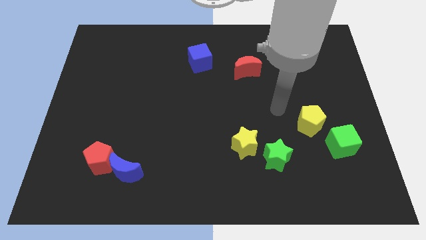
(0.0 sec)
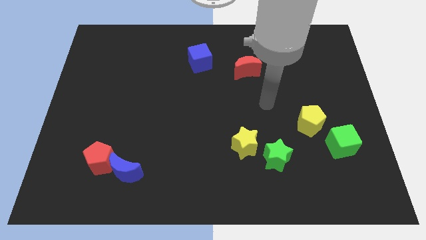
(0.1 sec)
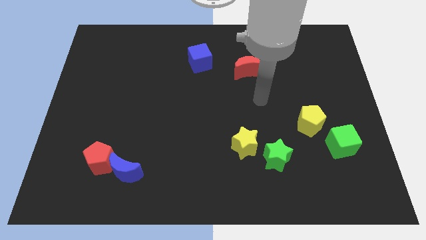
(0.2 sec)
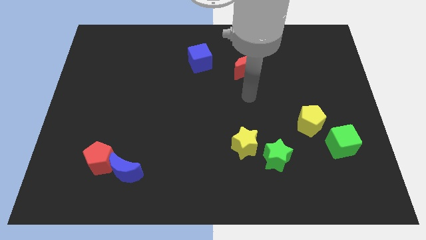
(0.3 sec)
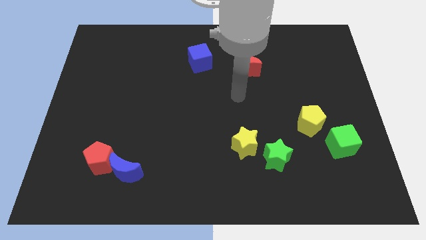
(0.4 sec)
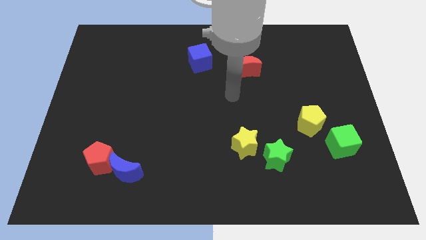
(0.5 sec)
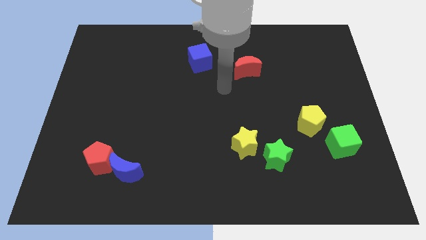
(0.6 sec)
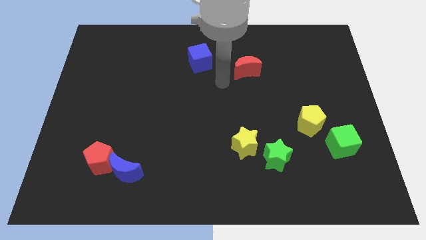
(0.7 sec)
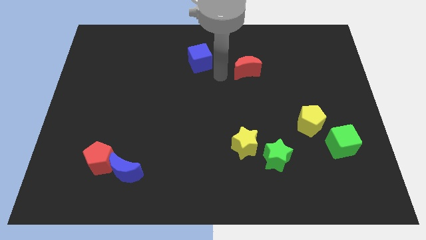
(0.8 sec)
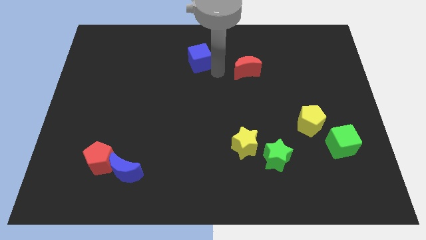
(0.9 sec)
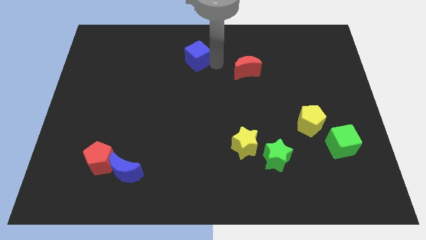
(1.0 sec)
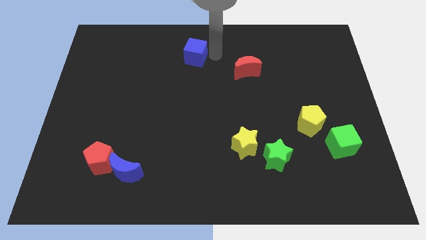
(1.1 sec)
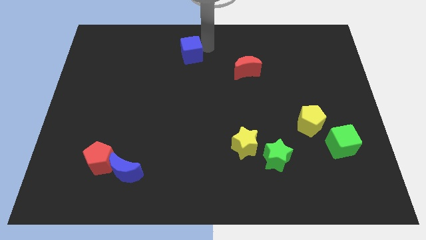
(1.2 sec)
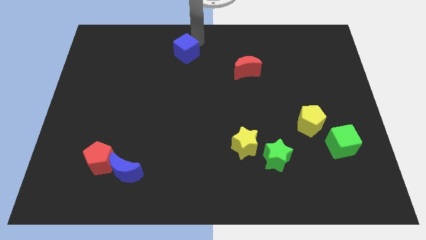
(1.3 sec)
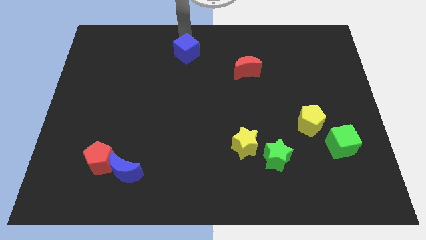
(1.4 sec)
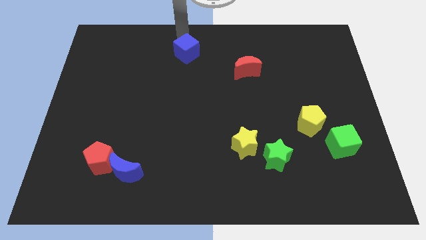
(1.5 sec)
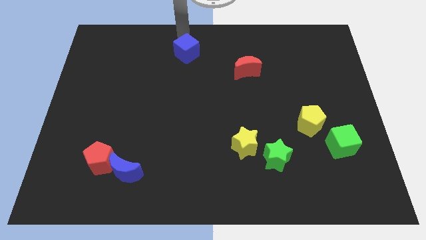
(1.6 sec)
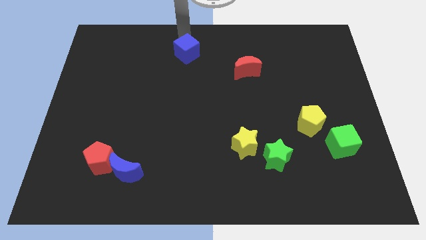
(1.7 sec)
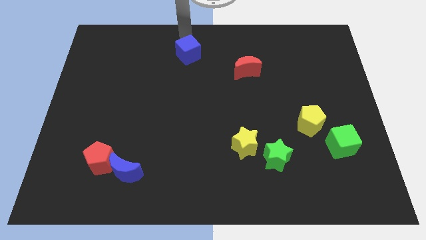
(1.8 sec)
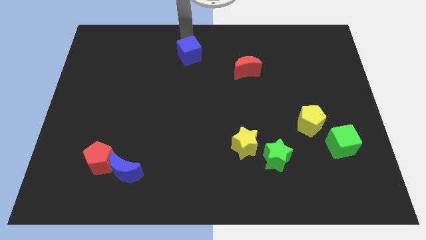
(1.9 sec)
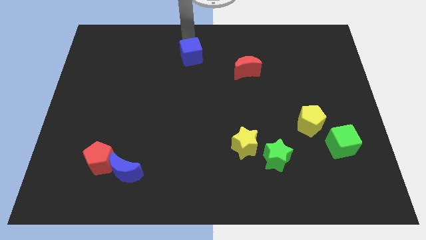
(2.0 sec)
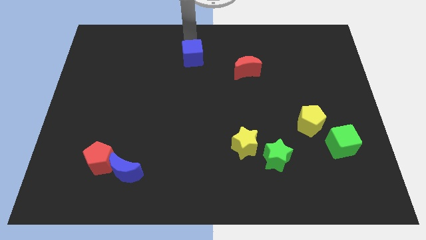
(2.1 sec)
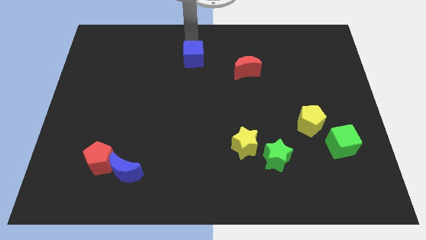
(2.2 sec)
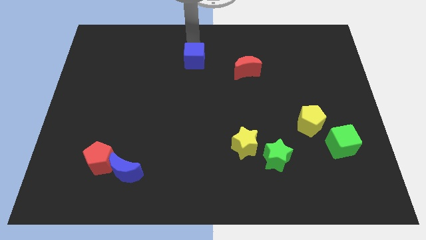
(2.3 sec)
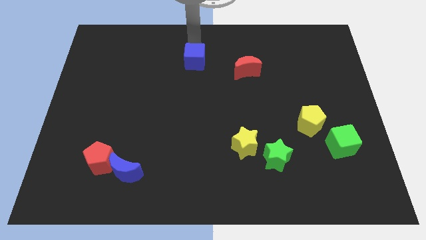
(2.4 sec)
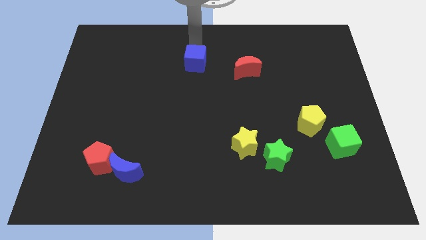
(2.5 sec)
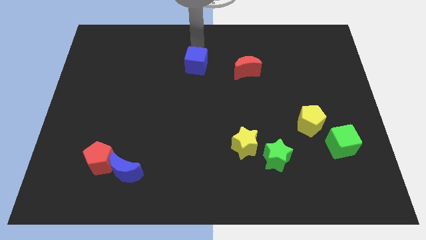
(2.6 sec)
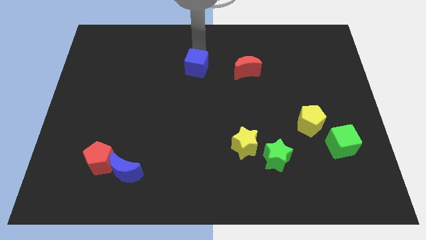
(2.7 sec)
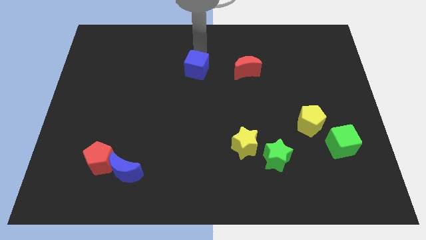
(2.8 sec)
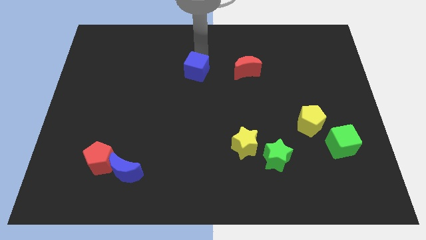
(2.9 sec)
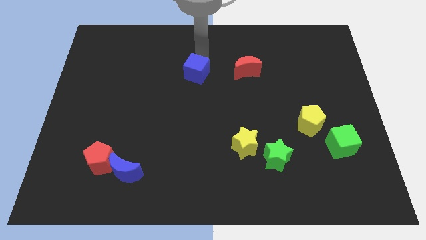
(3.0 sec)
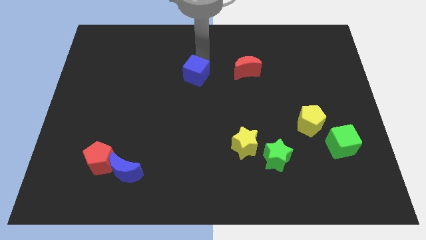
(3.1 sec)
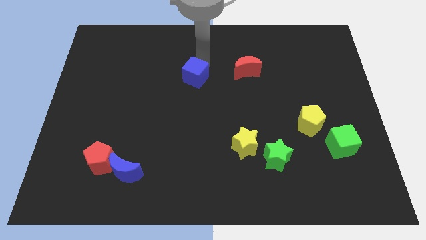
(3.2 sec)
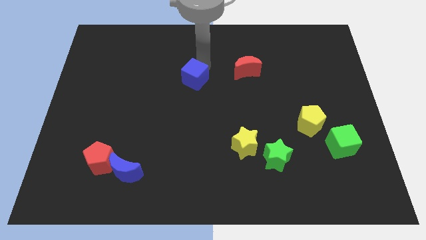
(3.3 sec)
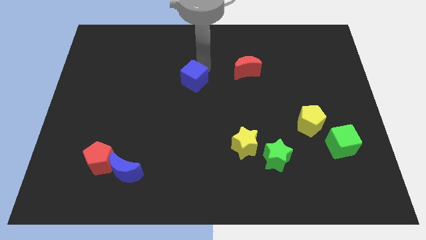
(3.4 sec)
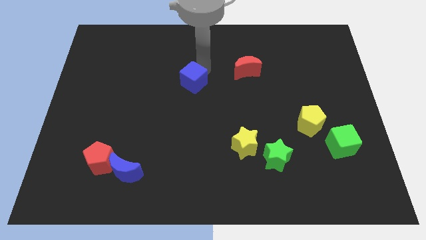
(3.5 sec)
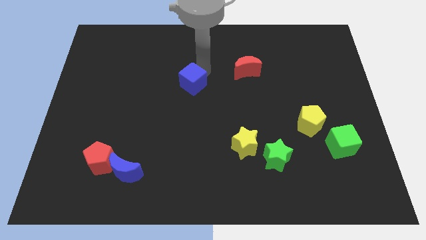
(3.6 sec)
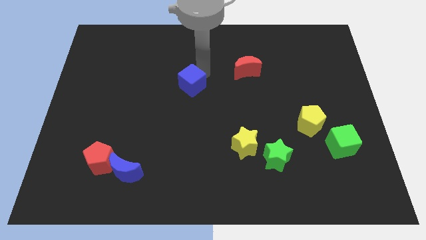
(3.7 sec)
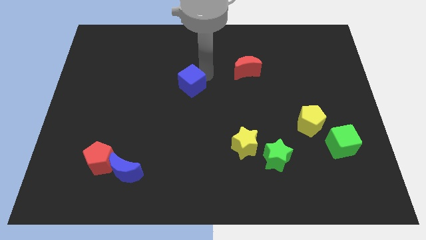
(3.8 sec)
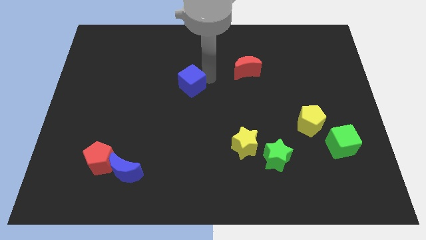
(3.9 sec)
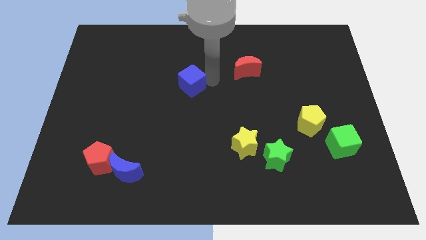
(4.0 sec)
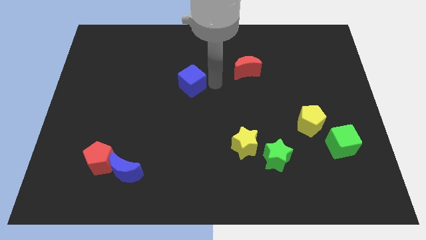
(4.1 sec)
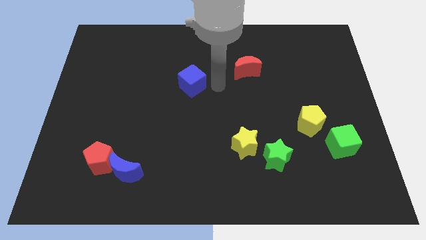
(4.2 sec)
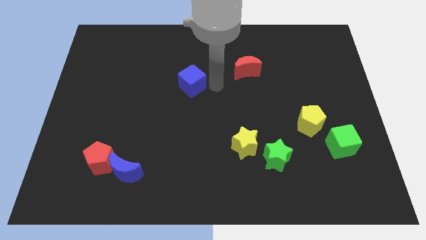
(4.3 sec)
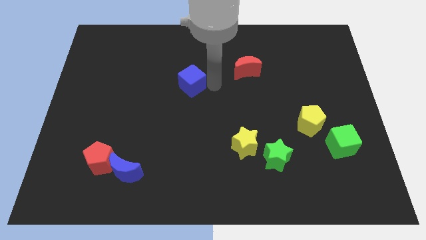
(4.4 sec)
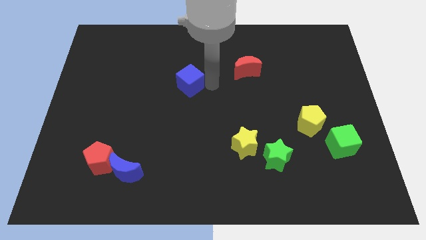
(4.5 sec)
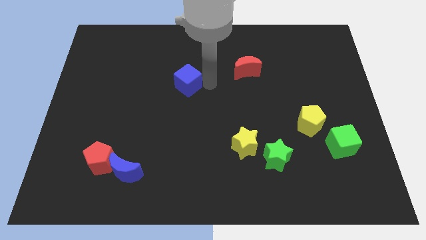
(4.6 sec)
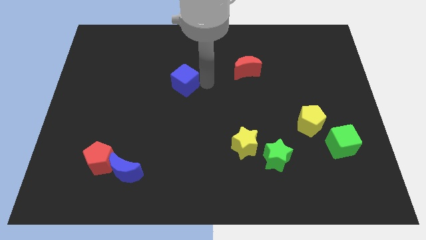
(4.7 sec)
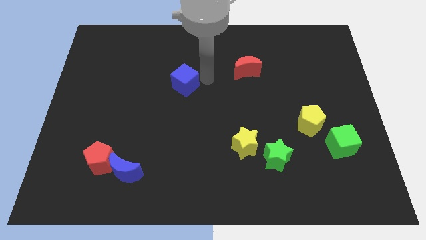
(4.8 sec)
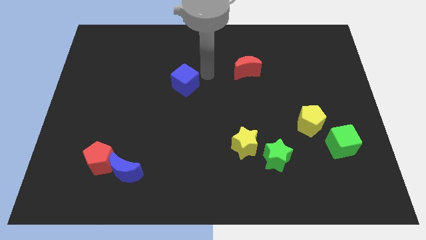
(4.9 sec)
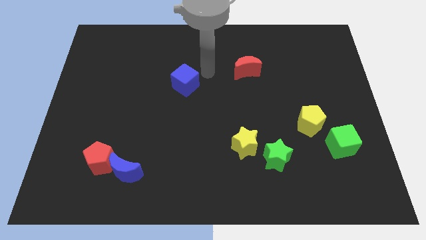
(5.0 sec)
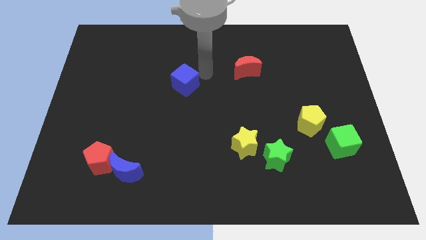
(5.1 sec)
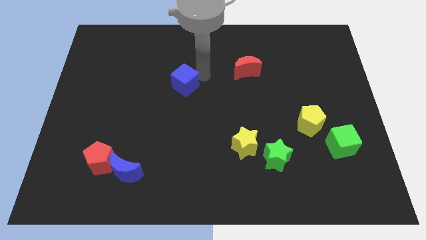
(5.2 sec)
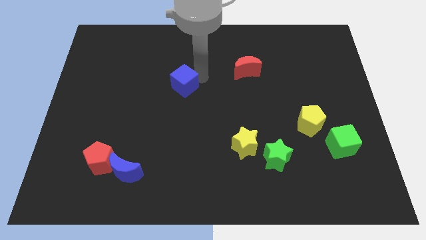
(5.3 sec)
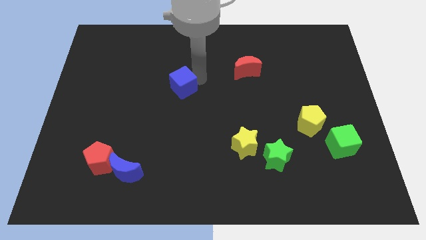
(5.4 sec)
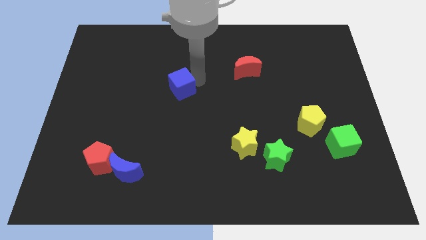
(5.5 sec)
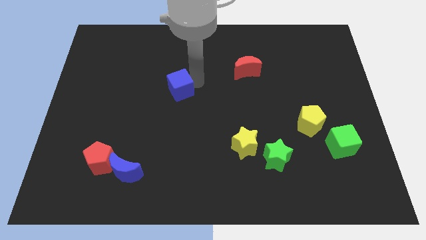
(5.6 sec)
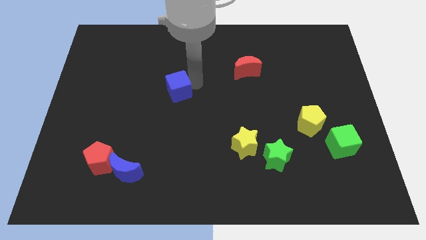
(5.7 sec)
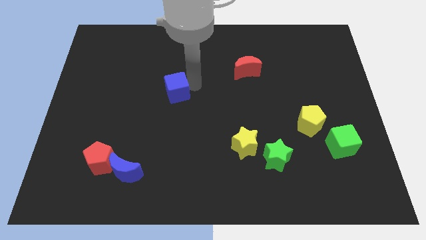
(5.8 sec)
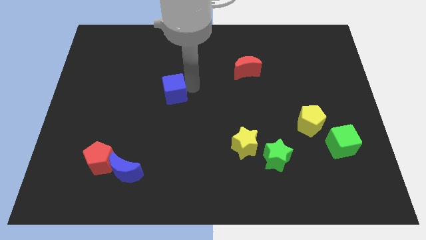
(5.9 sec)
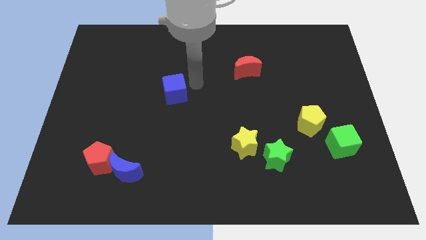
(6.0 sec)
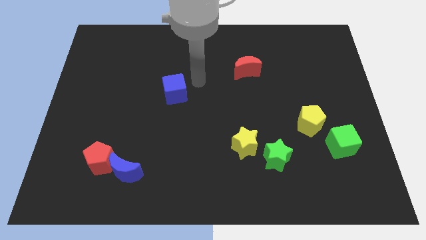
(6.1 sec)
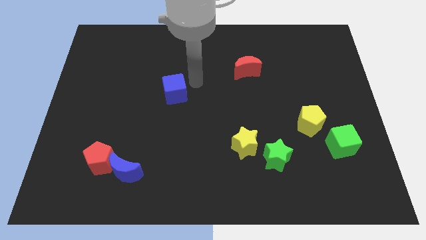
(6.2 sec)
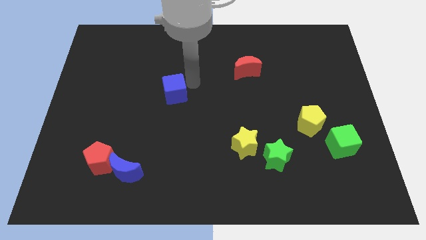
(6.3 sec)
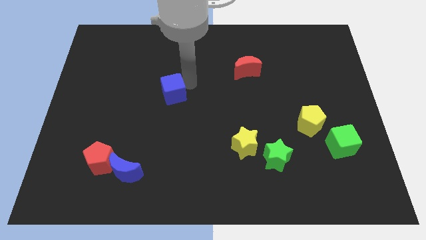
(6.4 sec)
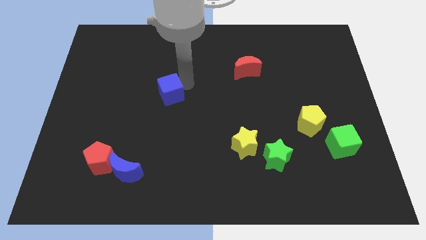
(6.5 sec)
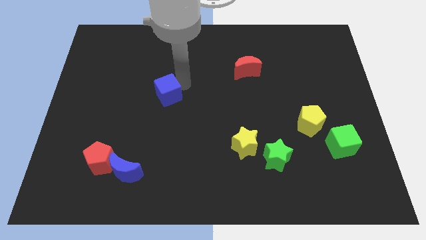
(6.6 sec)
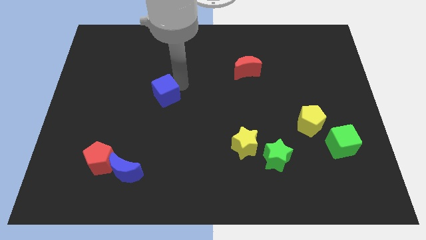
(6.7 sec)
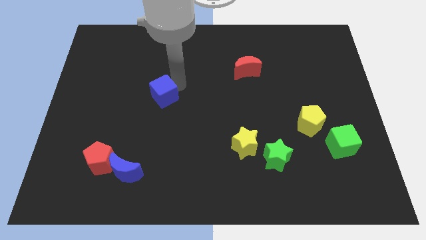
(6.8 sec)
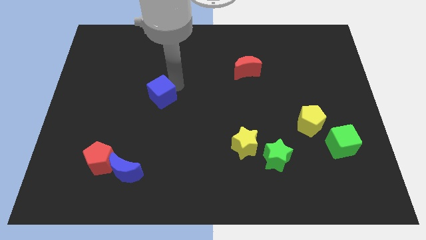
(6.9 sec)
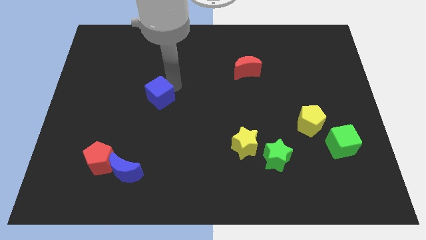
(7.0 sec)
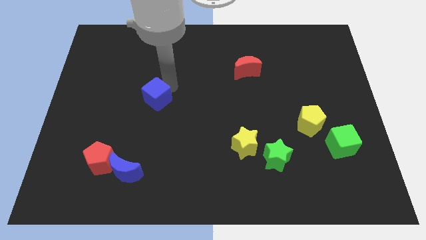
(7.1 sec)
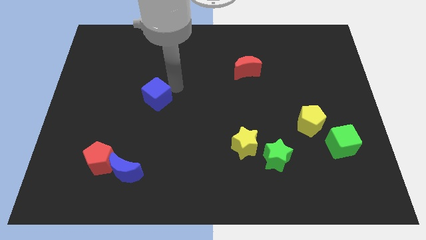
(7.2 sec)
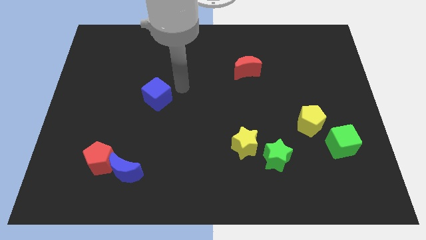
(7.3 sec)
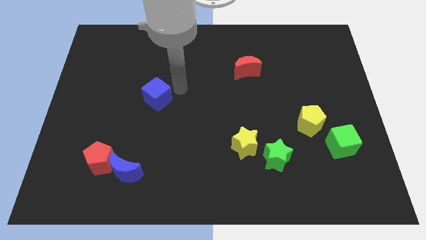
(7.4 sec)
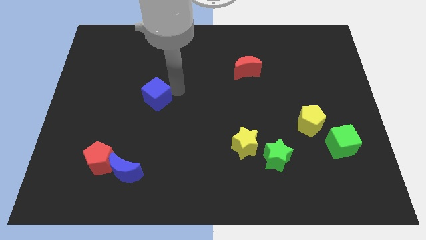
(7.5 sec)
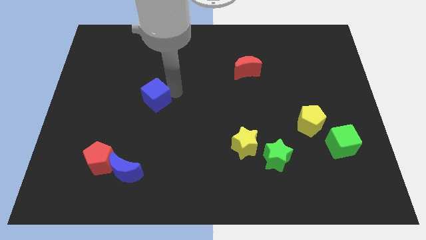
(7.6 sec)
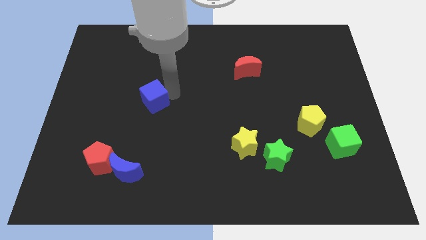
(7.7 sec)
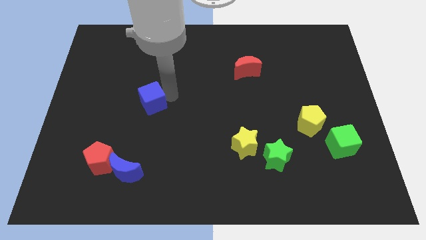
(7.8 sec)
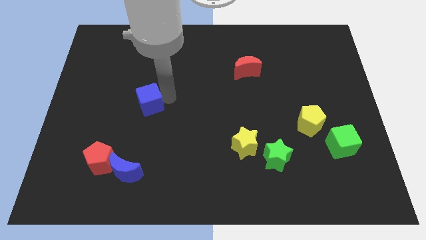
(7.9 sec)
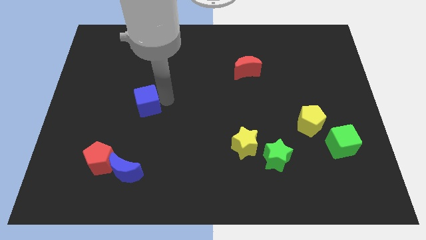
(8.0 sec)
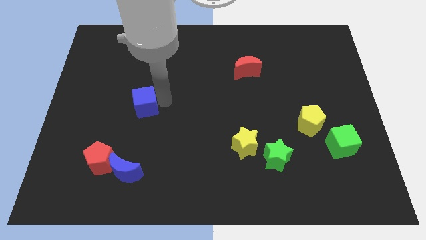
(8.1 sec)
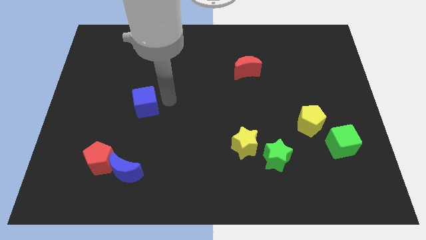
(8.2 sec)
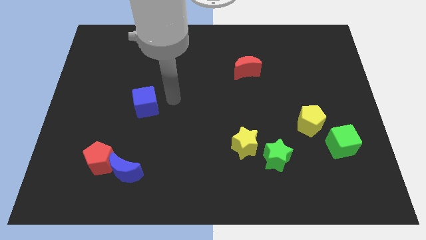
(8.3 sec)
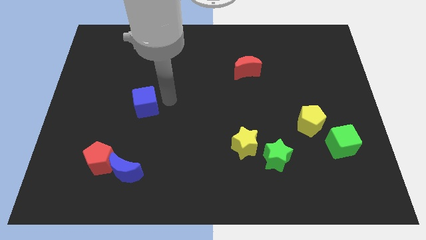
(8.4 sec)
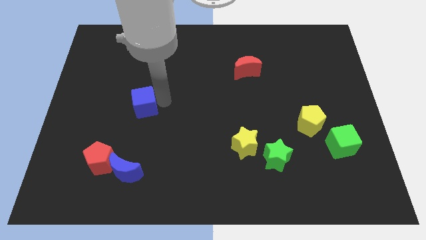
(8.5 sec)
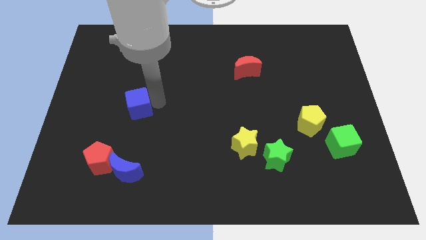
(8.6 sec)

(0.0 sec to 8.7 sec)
slide the blue cube down and to the left
